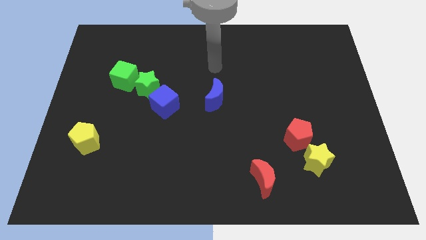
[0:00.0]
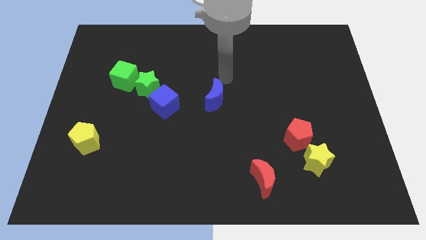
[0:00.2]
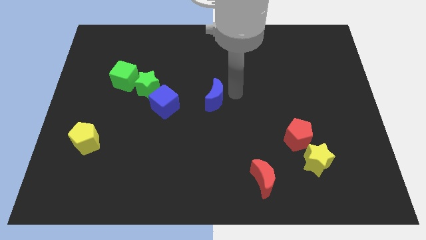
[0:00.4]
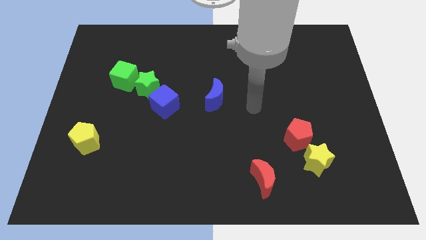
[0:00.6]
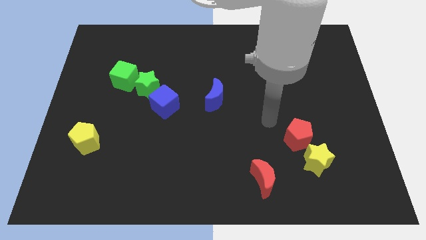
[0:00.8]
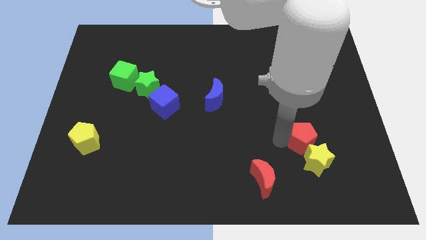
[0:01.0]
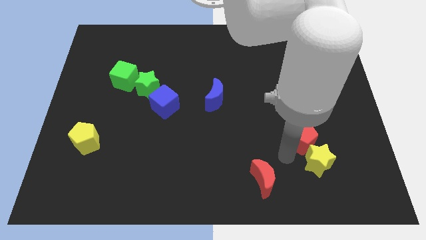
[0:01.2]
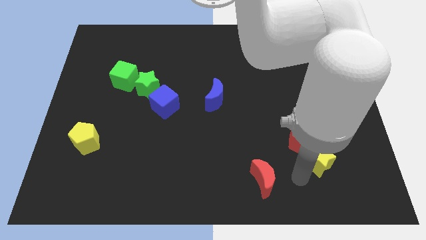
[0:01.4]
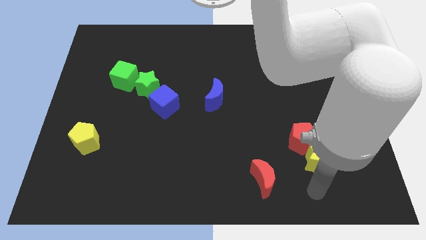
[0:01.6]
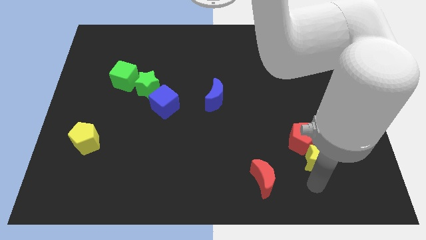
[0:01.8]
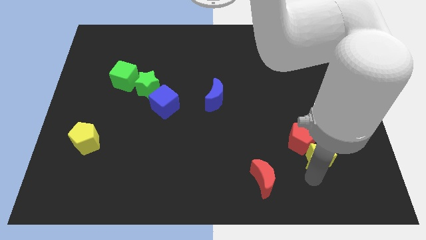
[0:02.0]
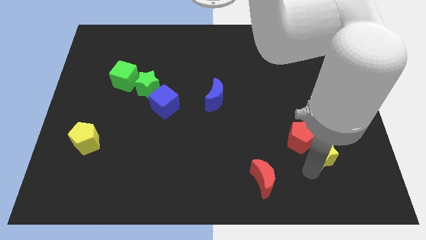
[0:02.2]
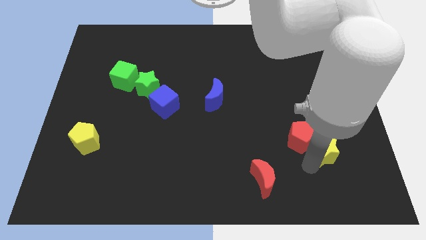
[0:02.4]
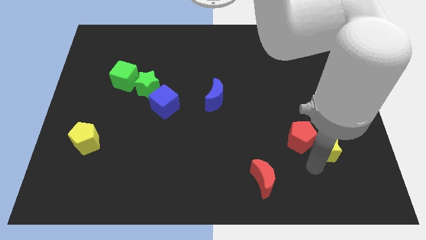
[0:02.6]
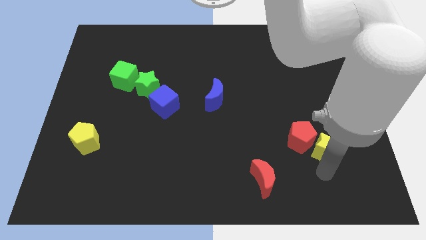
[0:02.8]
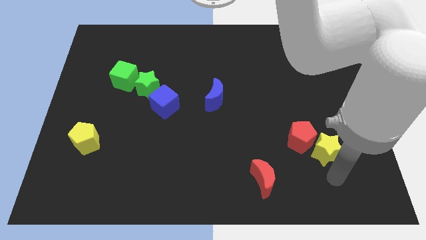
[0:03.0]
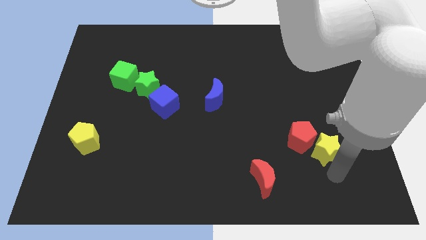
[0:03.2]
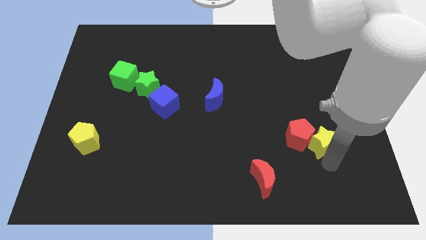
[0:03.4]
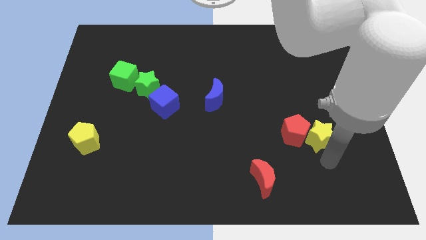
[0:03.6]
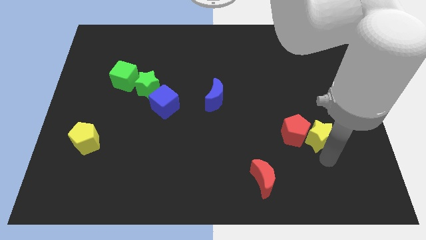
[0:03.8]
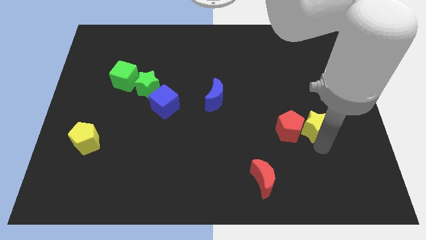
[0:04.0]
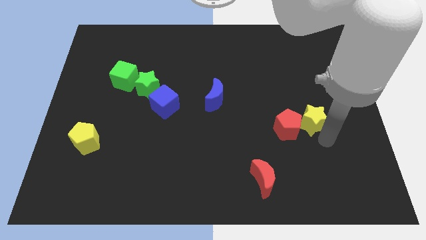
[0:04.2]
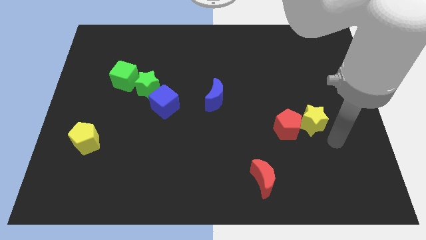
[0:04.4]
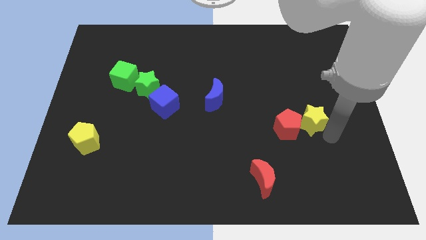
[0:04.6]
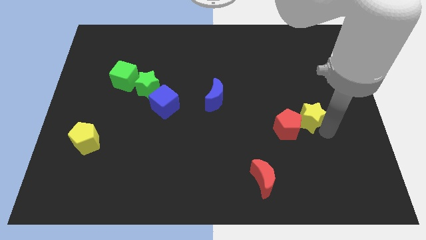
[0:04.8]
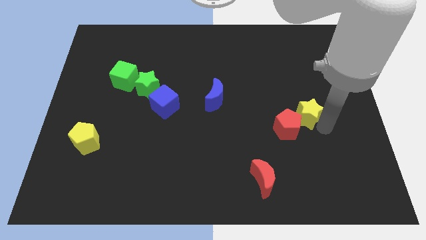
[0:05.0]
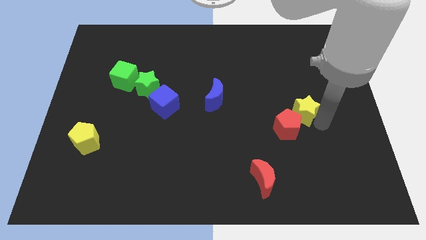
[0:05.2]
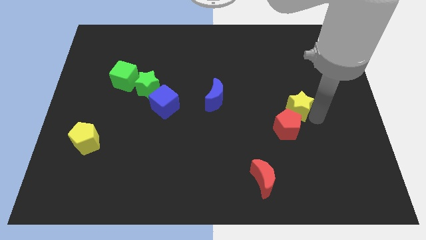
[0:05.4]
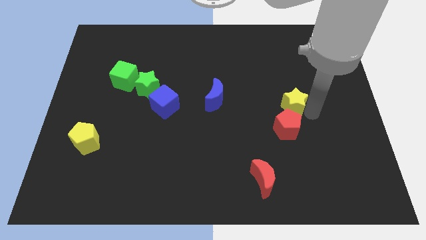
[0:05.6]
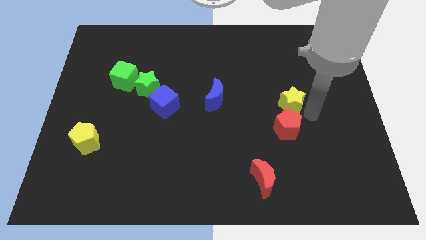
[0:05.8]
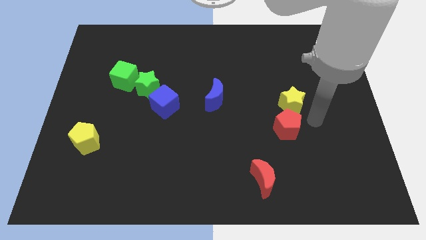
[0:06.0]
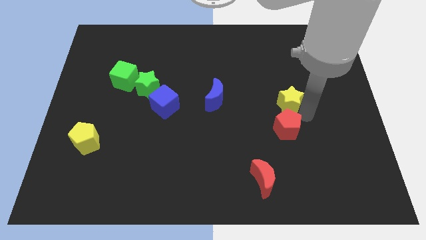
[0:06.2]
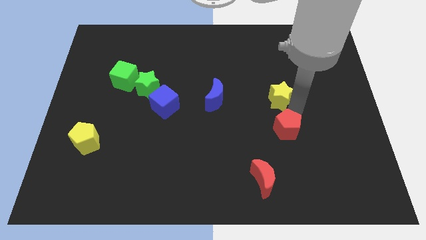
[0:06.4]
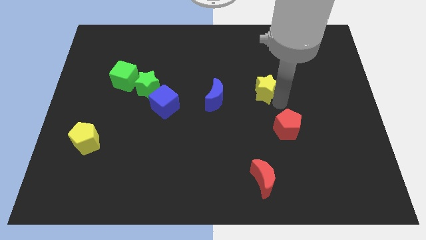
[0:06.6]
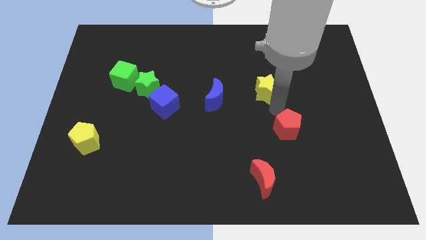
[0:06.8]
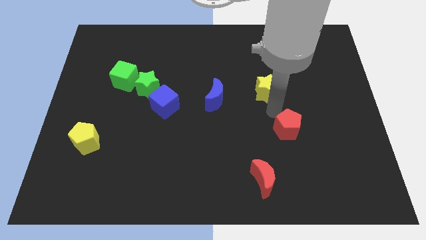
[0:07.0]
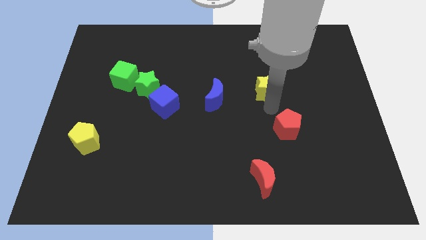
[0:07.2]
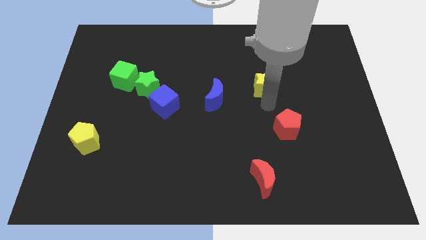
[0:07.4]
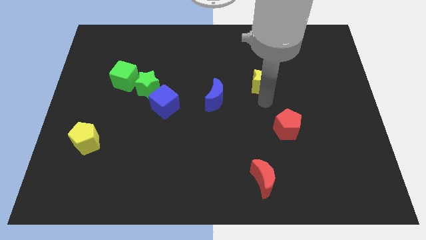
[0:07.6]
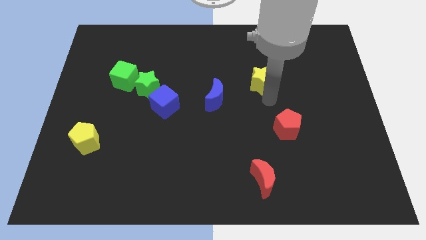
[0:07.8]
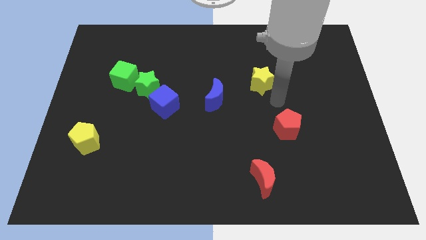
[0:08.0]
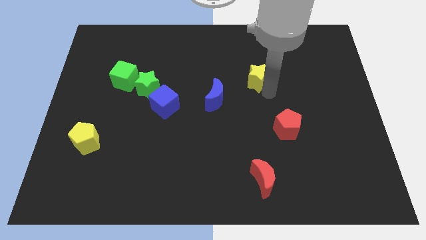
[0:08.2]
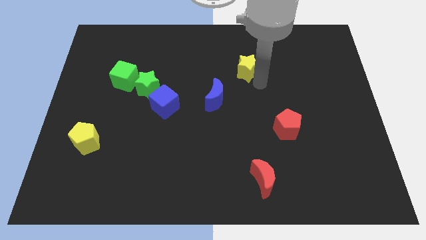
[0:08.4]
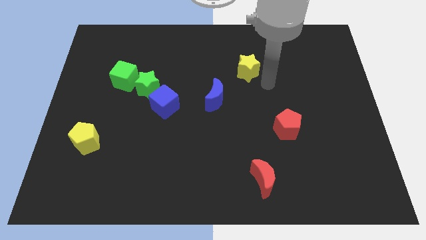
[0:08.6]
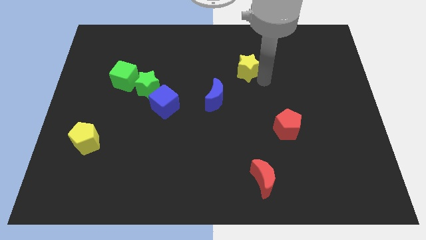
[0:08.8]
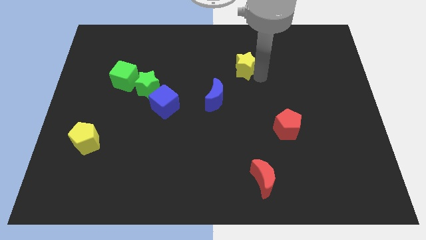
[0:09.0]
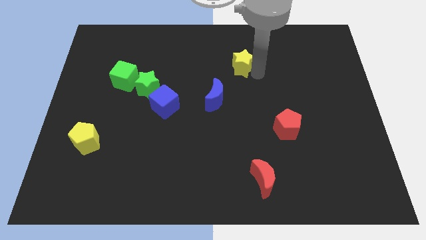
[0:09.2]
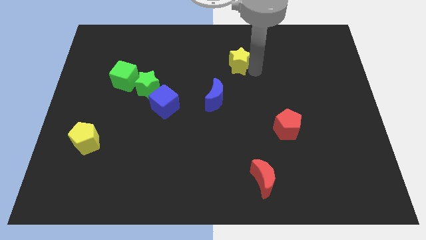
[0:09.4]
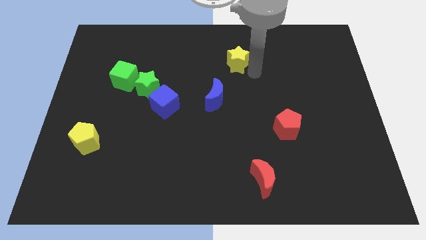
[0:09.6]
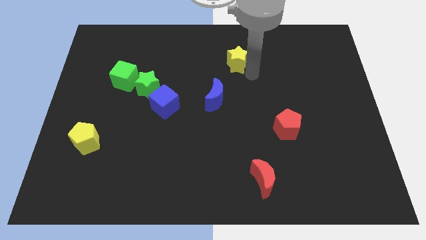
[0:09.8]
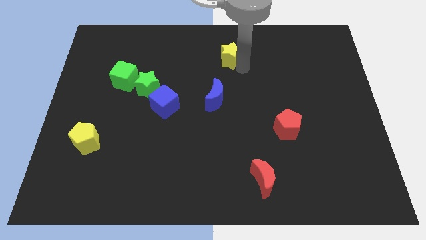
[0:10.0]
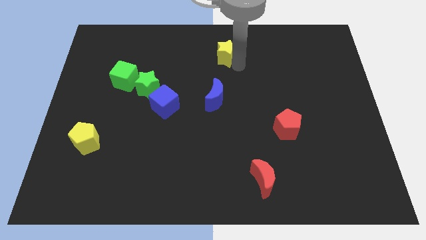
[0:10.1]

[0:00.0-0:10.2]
slide the yellow star to the towards your base

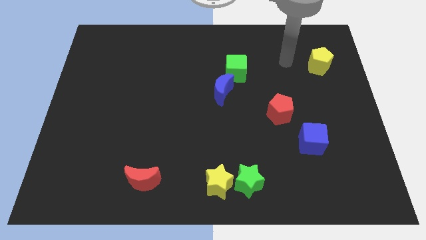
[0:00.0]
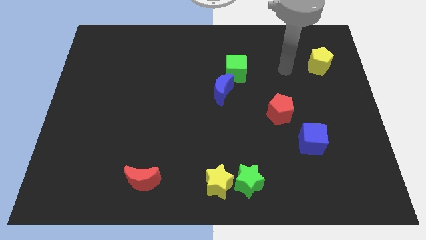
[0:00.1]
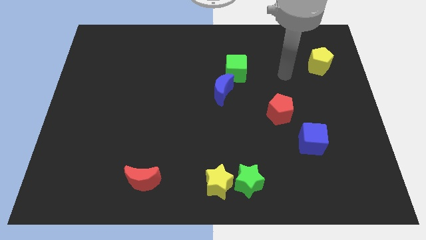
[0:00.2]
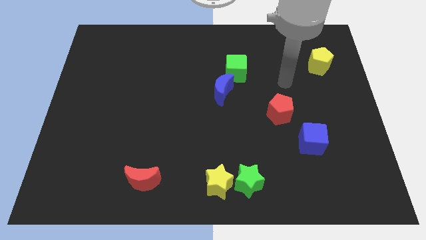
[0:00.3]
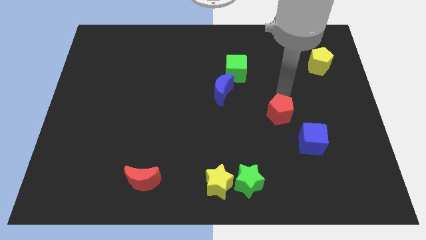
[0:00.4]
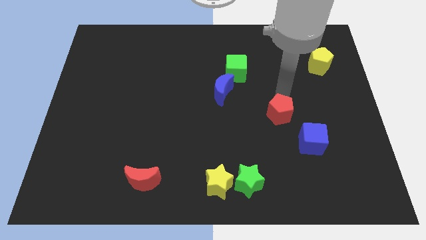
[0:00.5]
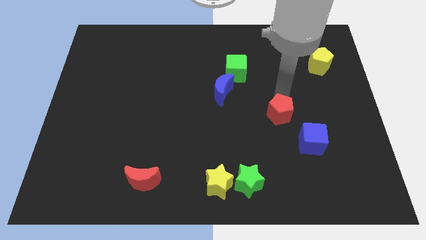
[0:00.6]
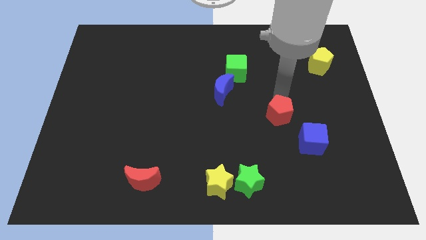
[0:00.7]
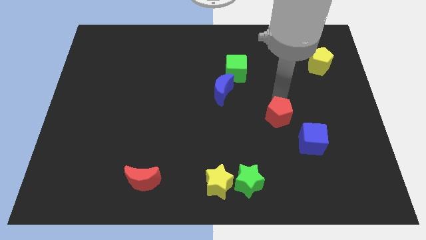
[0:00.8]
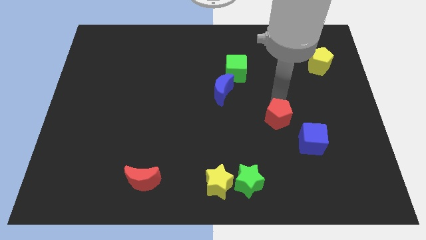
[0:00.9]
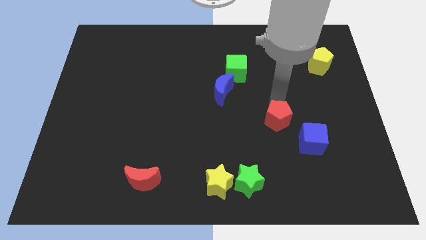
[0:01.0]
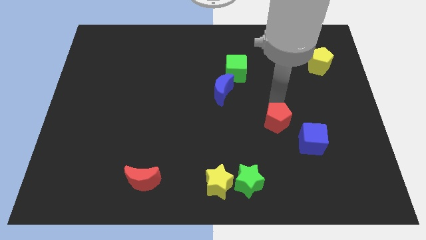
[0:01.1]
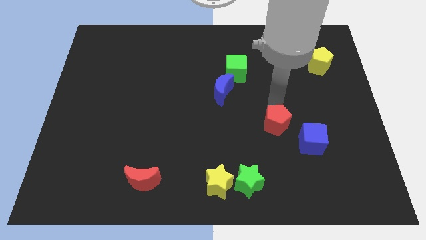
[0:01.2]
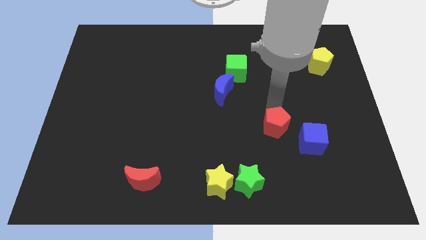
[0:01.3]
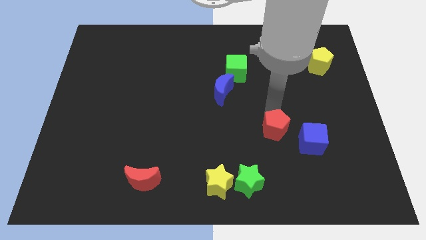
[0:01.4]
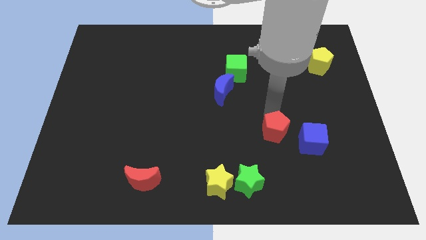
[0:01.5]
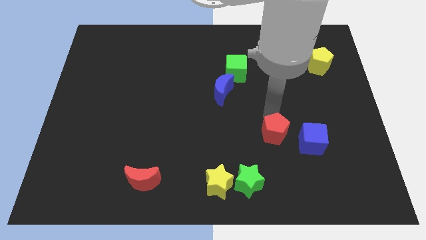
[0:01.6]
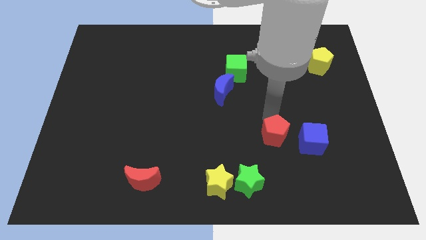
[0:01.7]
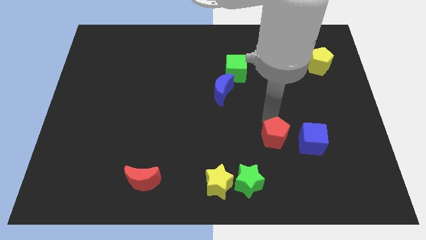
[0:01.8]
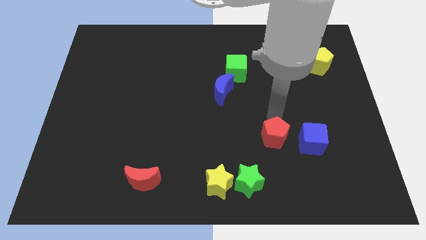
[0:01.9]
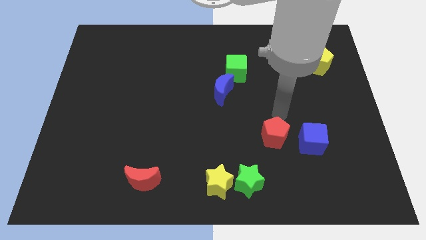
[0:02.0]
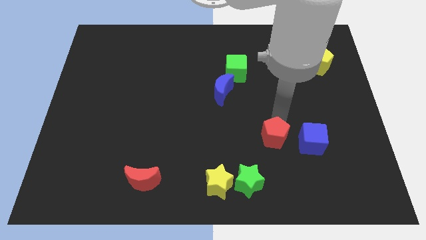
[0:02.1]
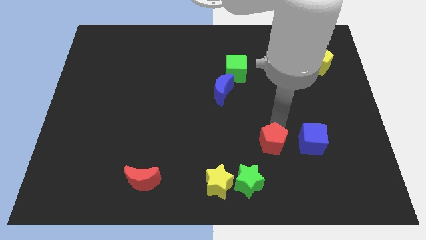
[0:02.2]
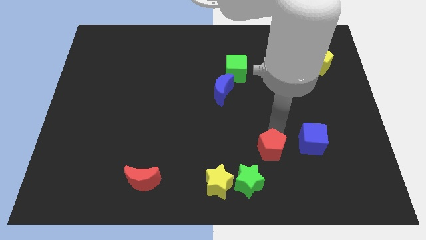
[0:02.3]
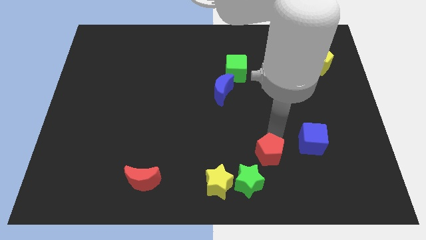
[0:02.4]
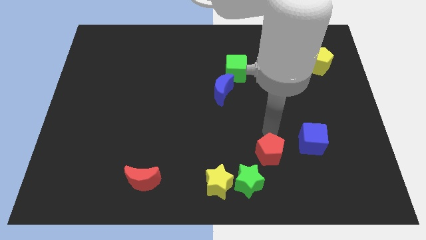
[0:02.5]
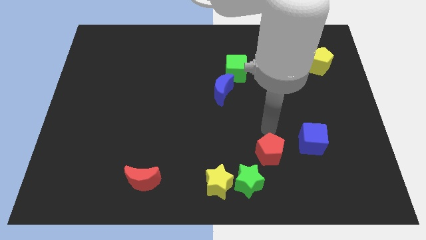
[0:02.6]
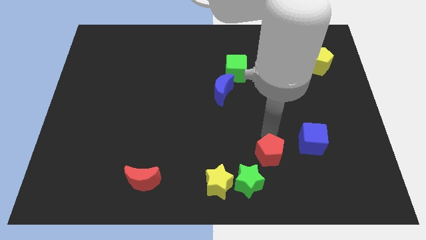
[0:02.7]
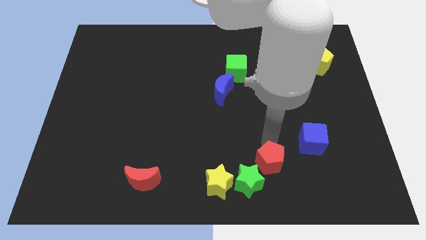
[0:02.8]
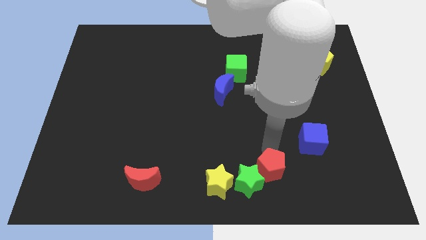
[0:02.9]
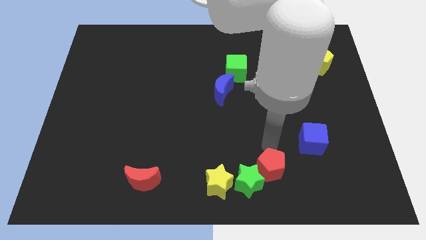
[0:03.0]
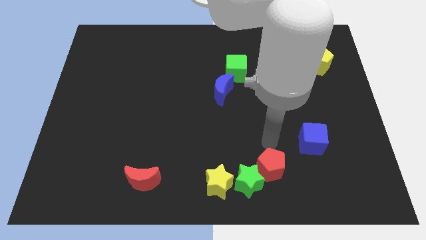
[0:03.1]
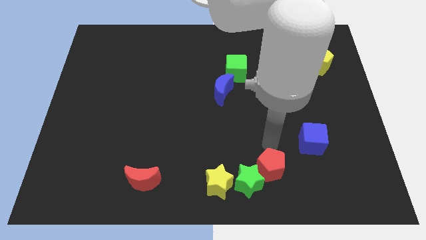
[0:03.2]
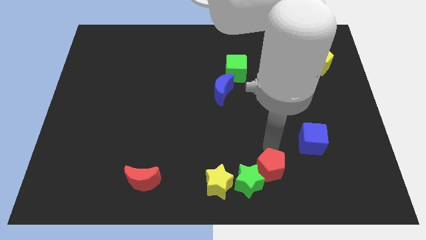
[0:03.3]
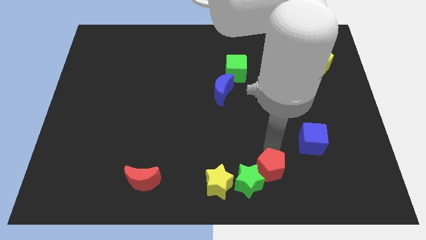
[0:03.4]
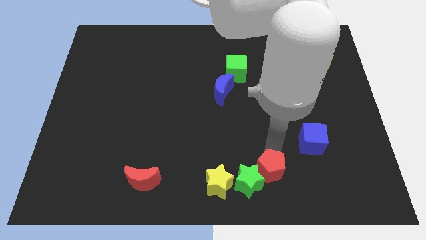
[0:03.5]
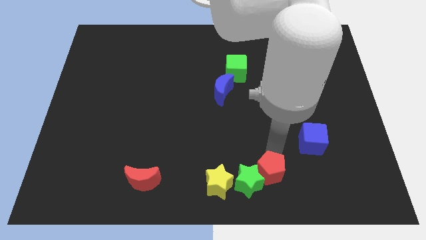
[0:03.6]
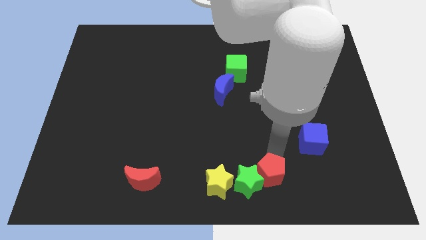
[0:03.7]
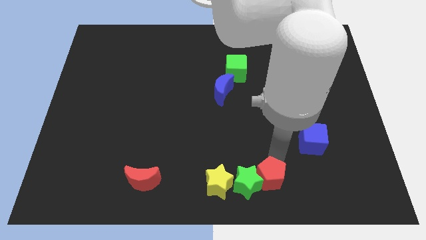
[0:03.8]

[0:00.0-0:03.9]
move the red pentagon to the bottom side
